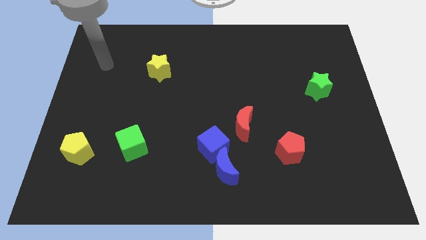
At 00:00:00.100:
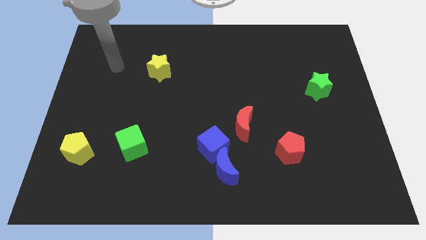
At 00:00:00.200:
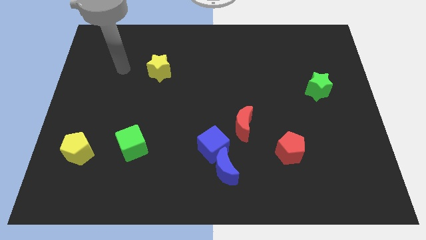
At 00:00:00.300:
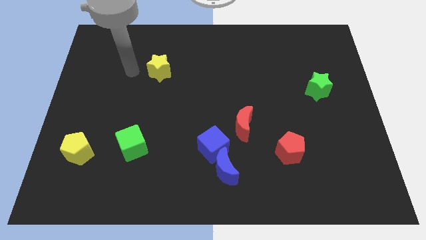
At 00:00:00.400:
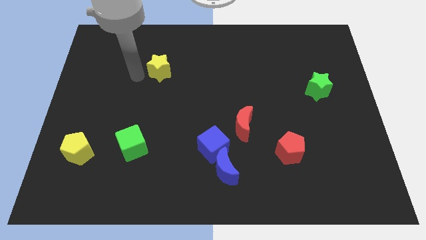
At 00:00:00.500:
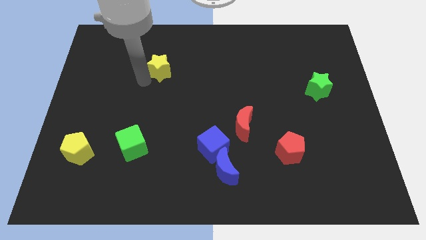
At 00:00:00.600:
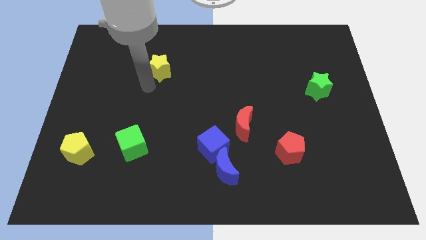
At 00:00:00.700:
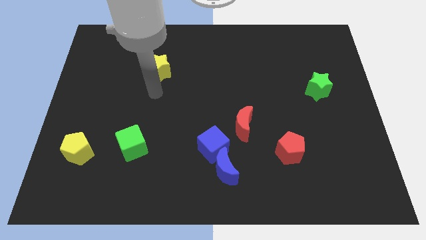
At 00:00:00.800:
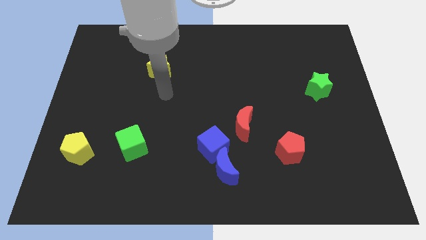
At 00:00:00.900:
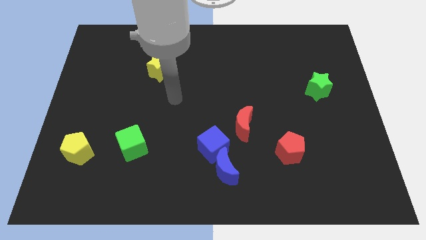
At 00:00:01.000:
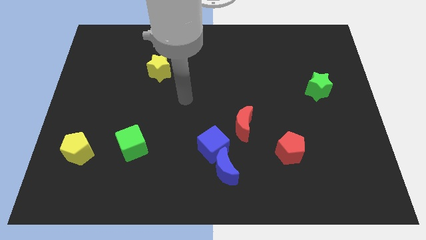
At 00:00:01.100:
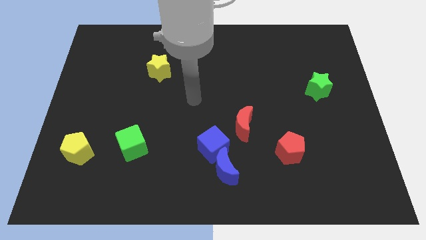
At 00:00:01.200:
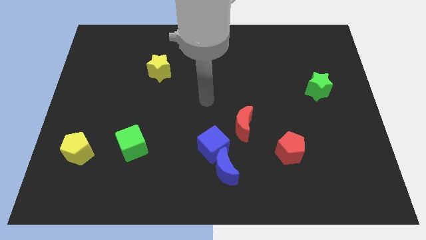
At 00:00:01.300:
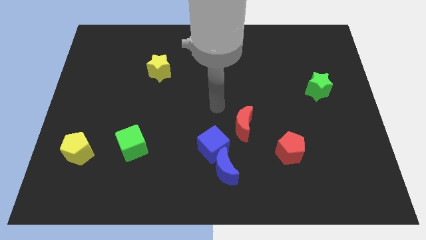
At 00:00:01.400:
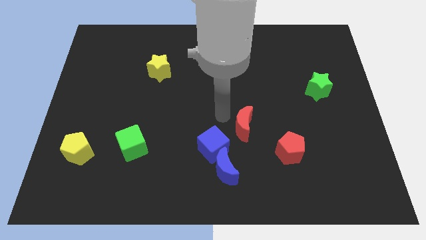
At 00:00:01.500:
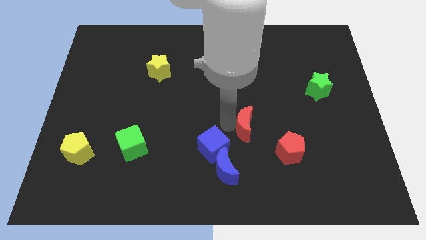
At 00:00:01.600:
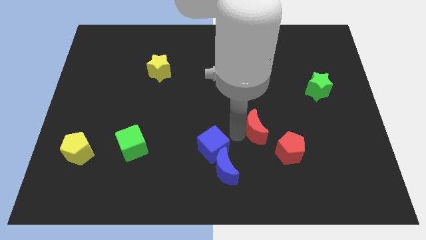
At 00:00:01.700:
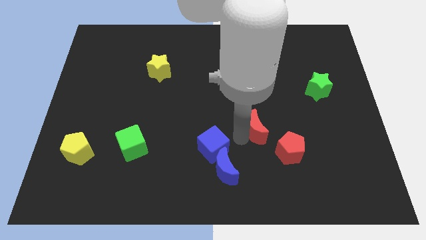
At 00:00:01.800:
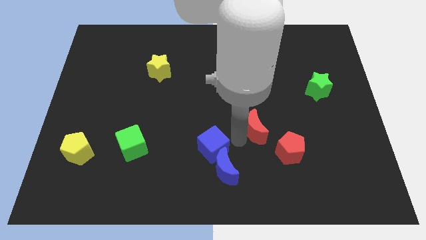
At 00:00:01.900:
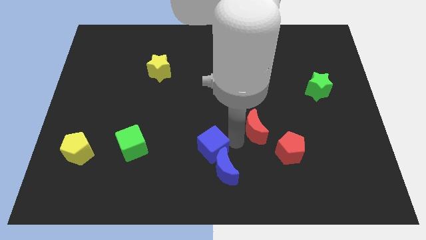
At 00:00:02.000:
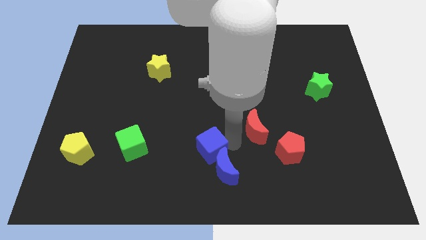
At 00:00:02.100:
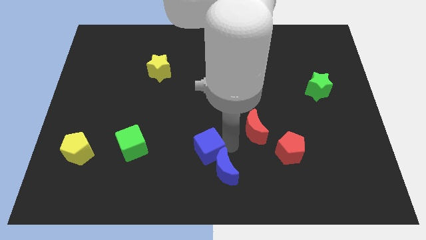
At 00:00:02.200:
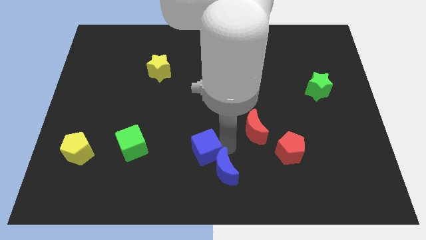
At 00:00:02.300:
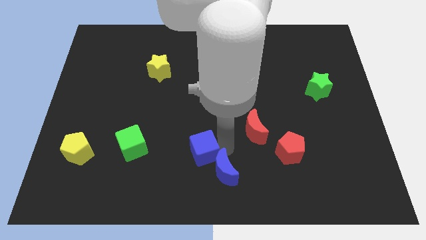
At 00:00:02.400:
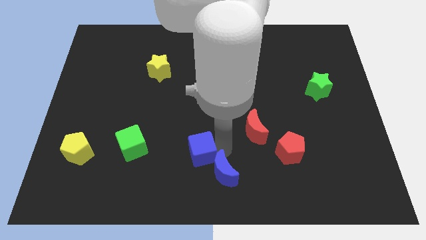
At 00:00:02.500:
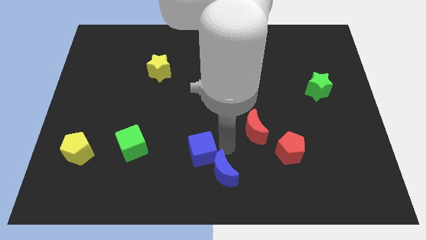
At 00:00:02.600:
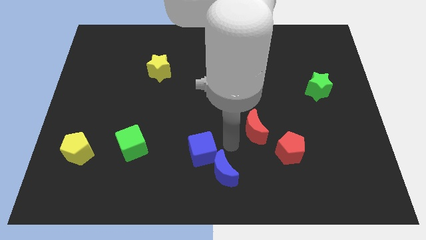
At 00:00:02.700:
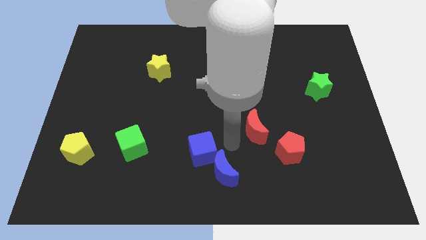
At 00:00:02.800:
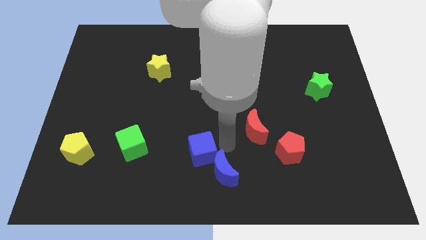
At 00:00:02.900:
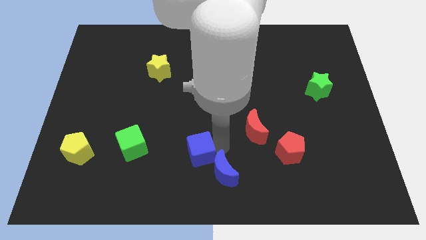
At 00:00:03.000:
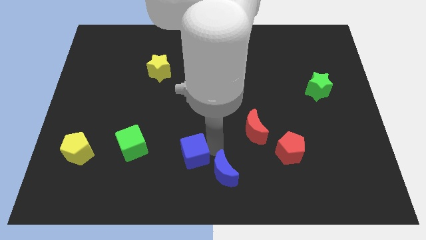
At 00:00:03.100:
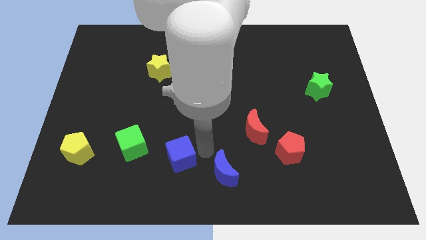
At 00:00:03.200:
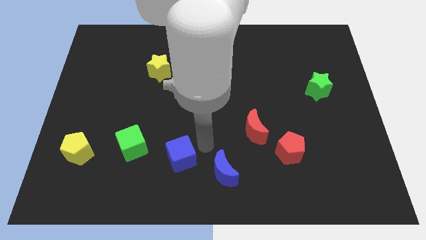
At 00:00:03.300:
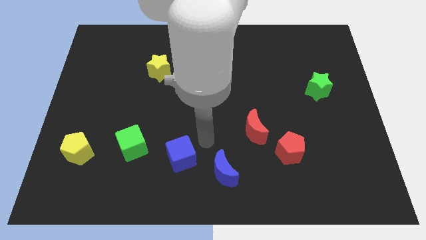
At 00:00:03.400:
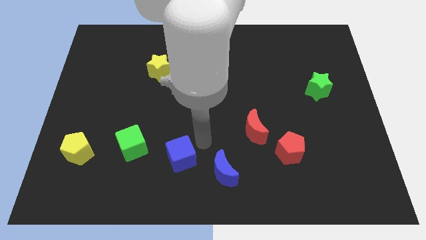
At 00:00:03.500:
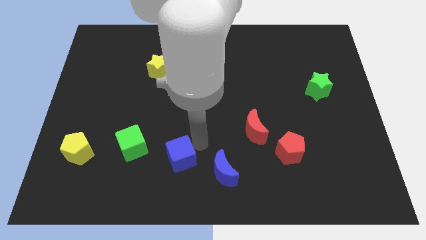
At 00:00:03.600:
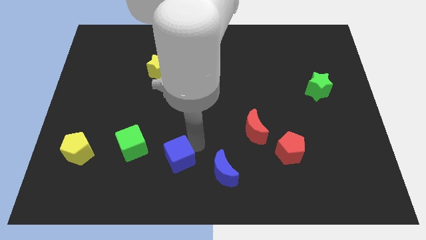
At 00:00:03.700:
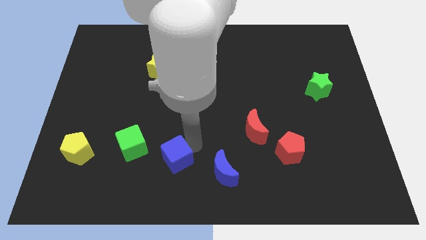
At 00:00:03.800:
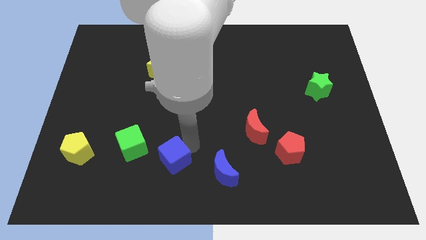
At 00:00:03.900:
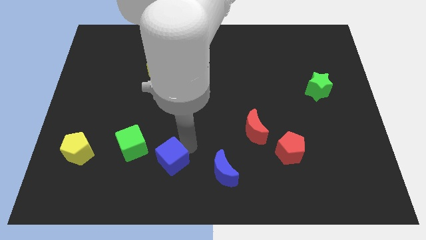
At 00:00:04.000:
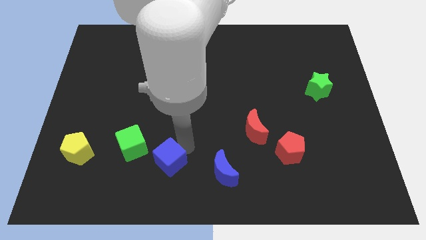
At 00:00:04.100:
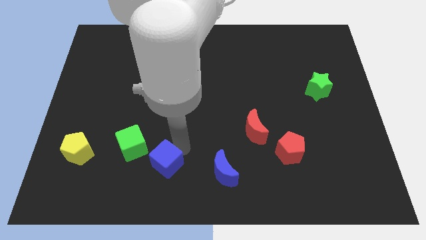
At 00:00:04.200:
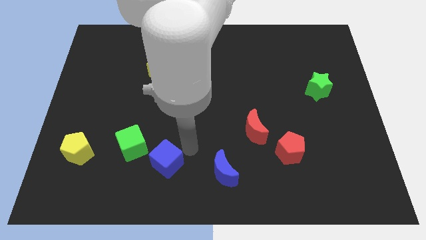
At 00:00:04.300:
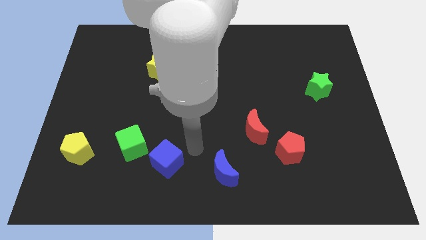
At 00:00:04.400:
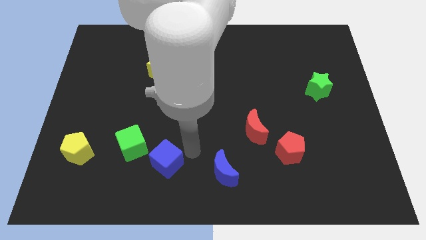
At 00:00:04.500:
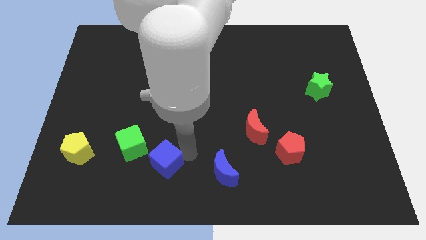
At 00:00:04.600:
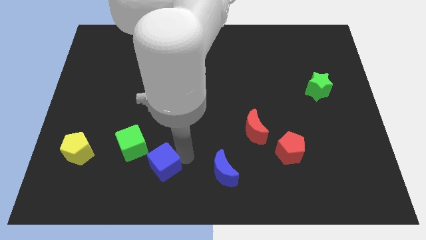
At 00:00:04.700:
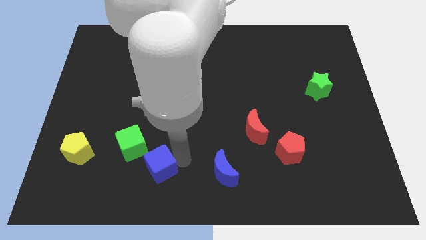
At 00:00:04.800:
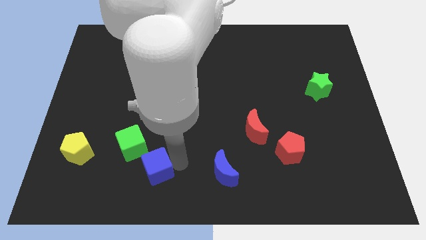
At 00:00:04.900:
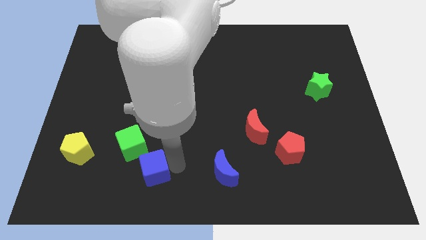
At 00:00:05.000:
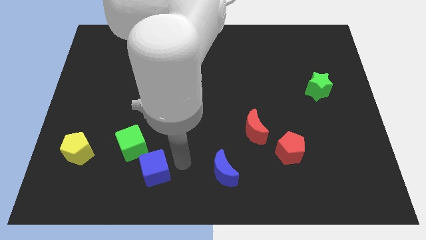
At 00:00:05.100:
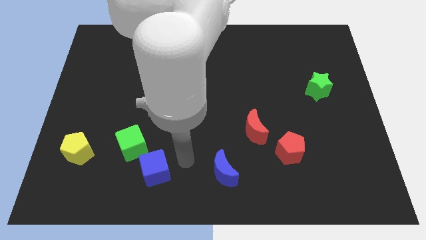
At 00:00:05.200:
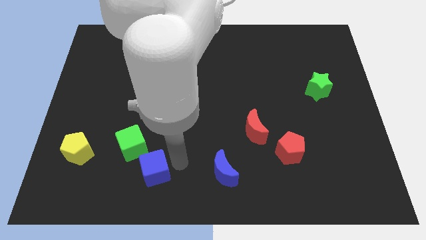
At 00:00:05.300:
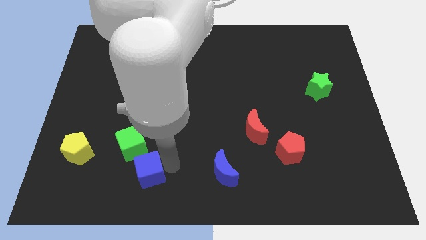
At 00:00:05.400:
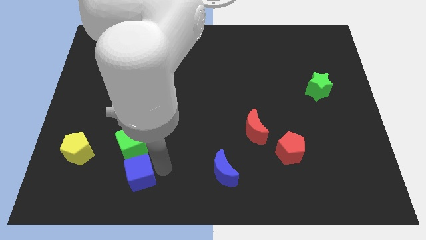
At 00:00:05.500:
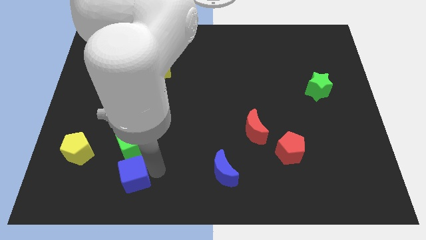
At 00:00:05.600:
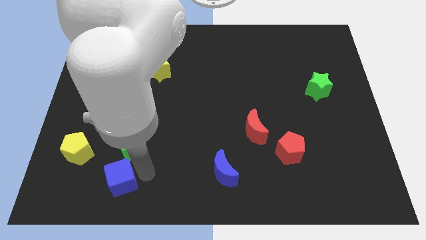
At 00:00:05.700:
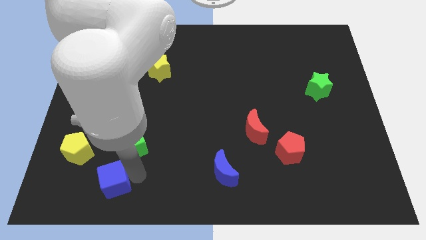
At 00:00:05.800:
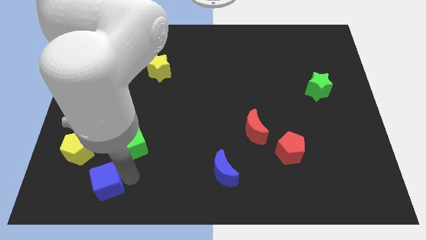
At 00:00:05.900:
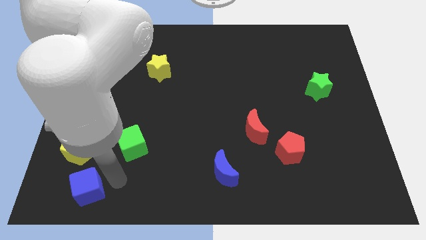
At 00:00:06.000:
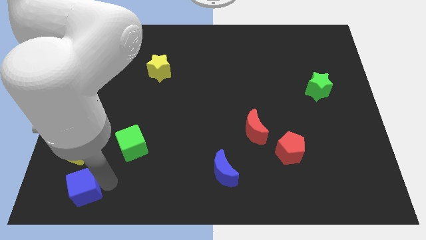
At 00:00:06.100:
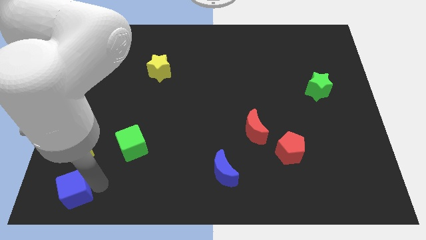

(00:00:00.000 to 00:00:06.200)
put the blue cube to the bottom left corner
